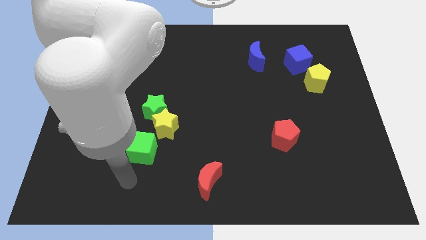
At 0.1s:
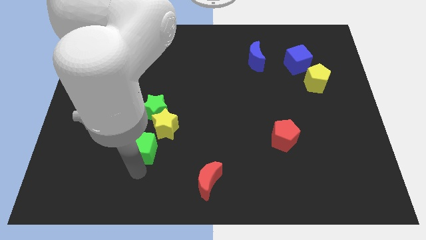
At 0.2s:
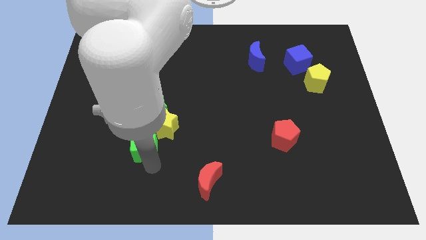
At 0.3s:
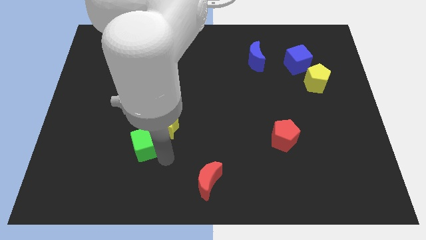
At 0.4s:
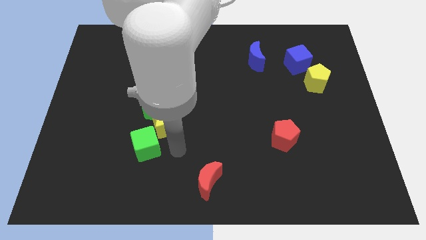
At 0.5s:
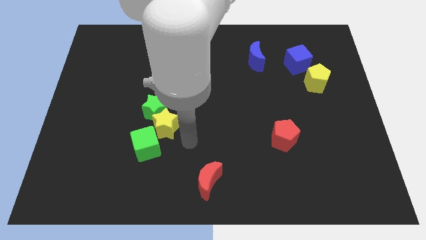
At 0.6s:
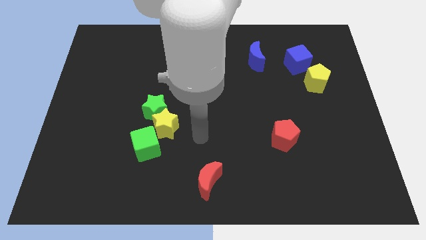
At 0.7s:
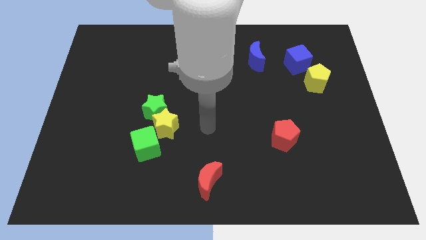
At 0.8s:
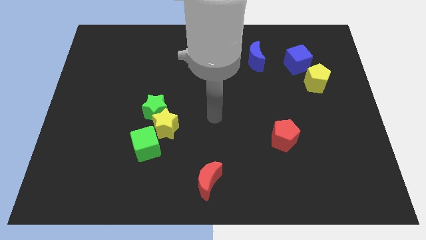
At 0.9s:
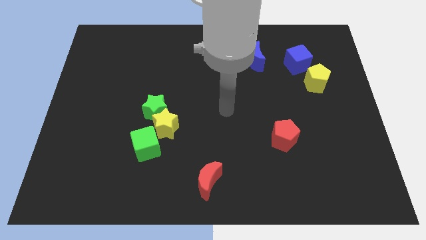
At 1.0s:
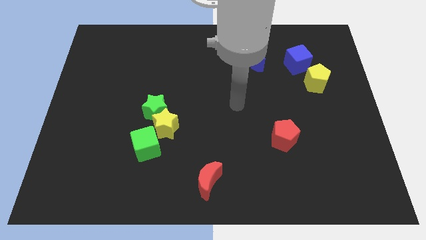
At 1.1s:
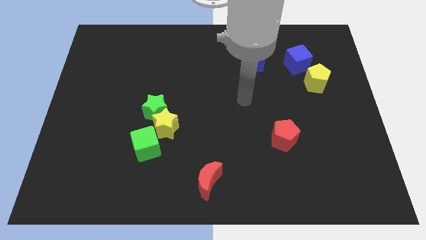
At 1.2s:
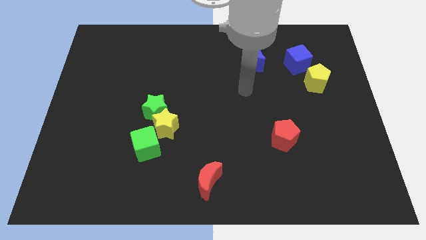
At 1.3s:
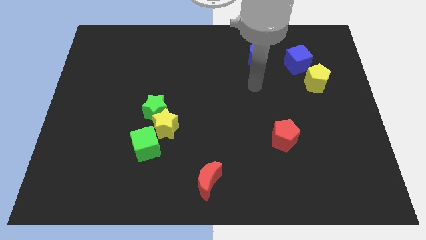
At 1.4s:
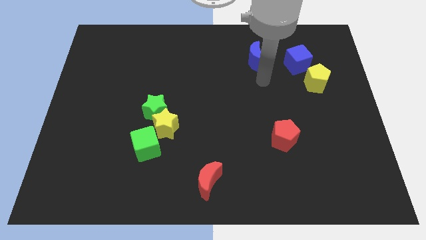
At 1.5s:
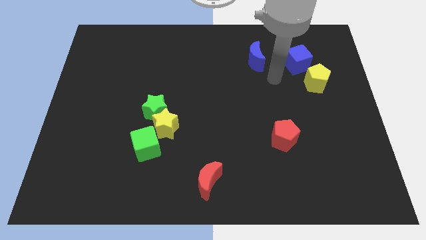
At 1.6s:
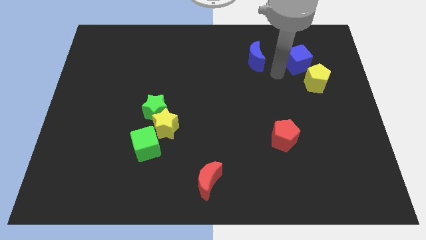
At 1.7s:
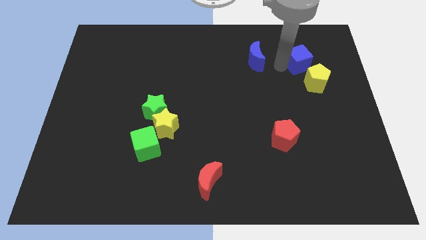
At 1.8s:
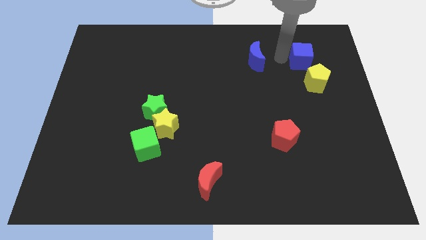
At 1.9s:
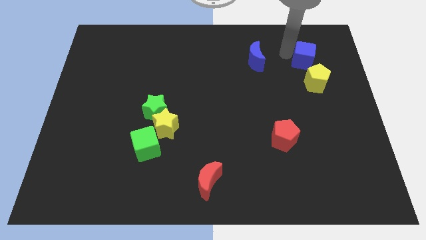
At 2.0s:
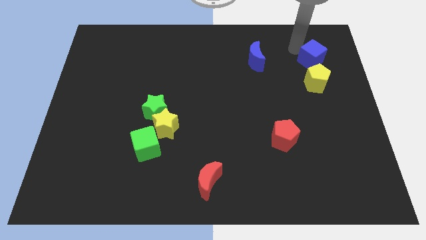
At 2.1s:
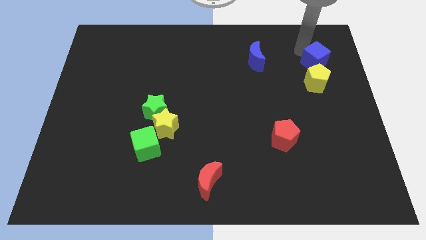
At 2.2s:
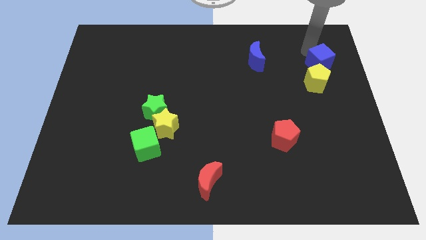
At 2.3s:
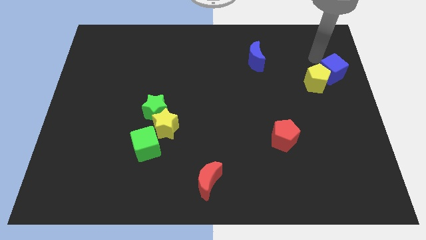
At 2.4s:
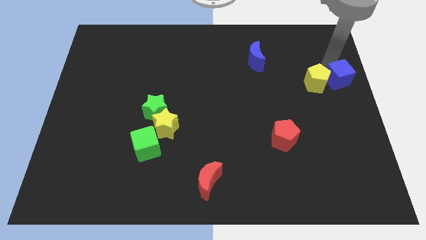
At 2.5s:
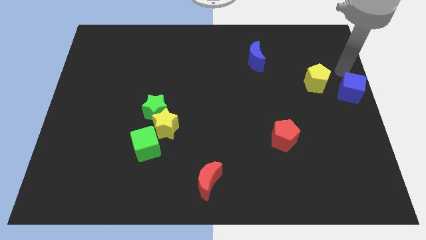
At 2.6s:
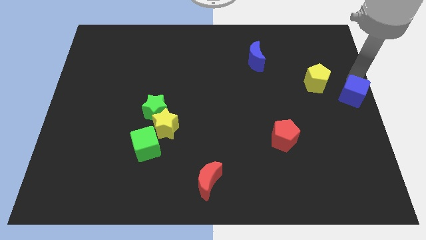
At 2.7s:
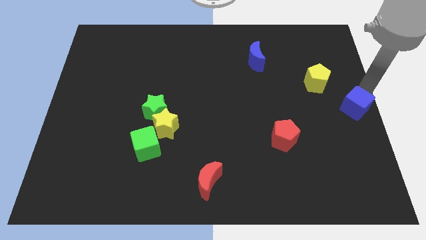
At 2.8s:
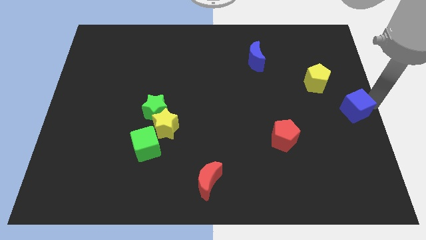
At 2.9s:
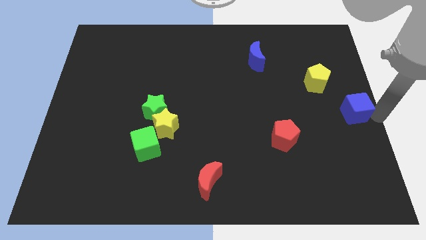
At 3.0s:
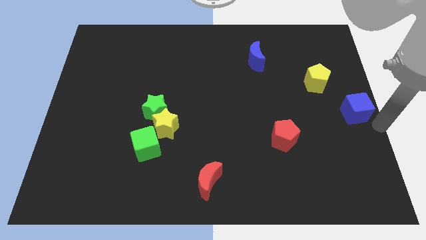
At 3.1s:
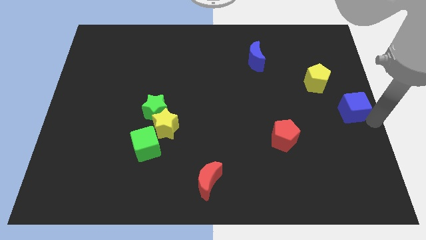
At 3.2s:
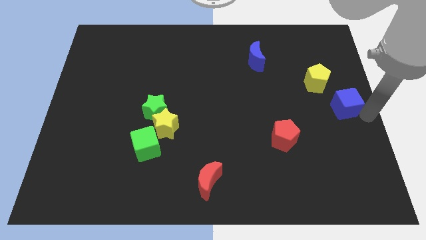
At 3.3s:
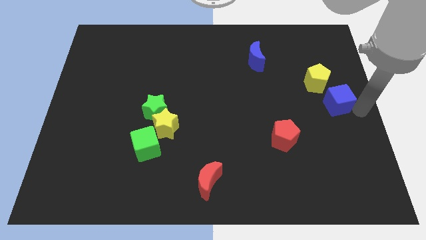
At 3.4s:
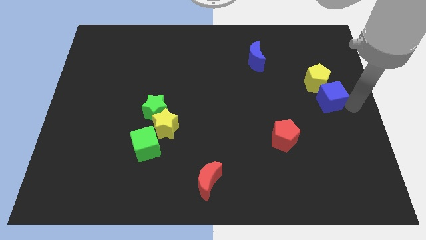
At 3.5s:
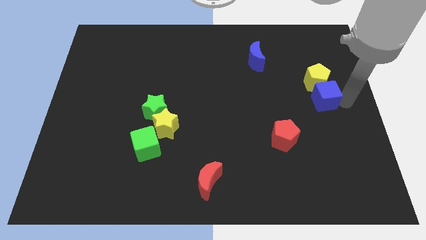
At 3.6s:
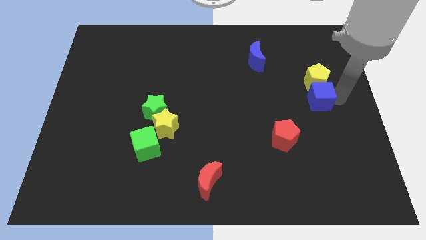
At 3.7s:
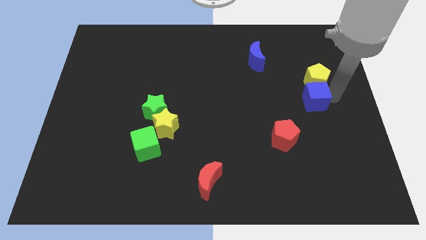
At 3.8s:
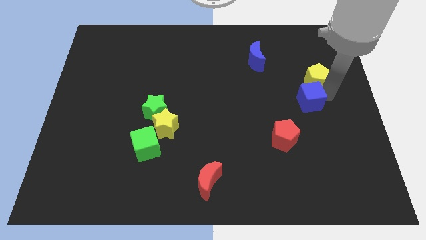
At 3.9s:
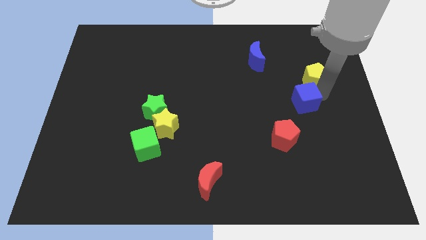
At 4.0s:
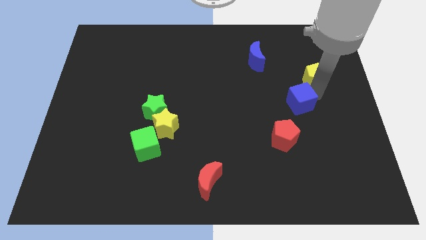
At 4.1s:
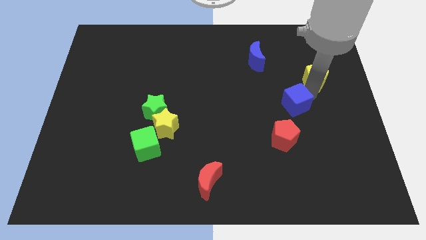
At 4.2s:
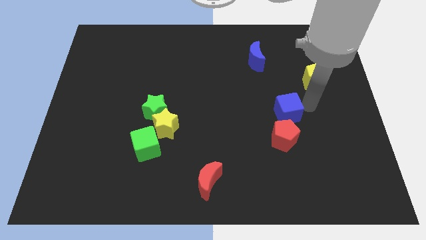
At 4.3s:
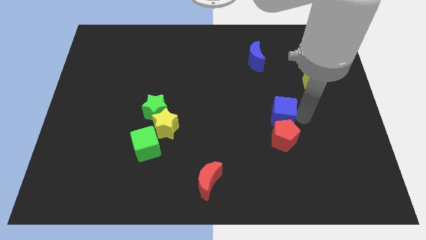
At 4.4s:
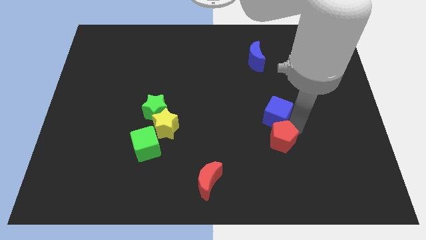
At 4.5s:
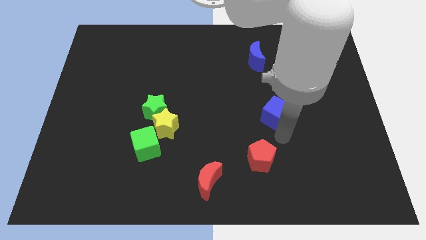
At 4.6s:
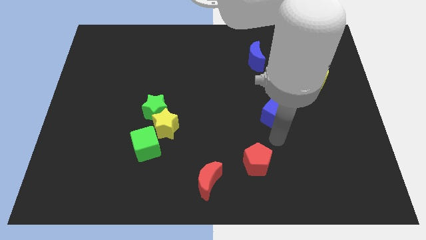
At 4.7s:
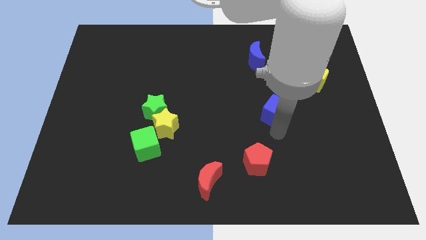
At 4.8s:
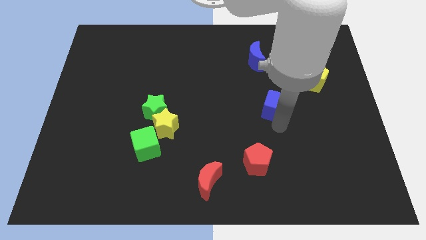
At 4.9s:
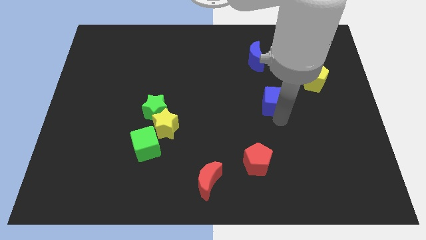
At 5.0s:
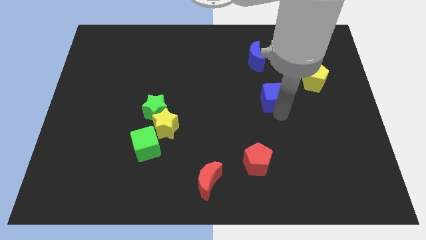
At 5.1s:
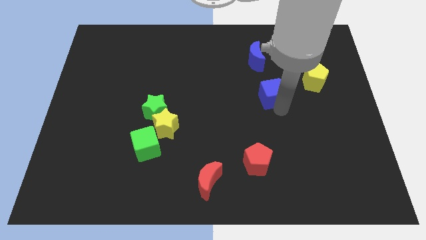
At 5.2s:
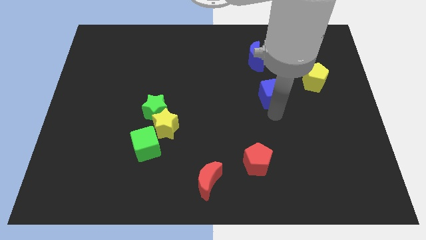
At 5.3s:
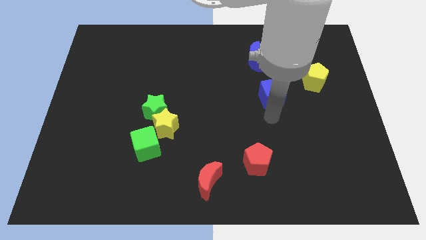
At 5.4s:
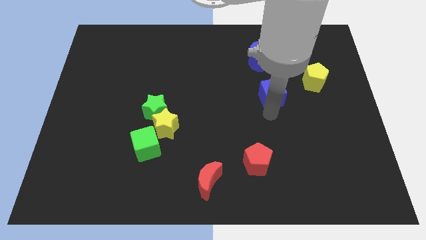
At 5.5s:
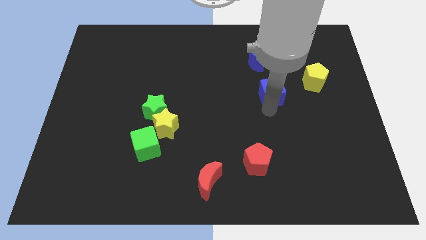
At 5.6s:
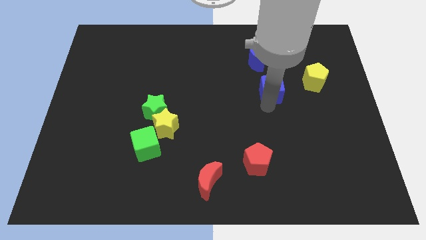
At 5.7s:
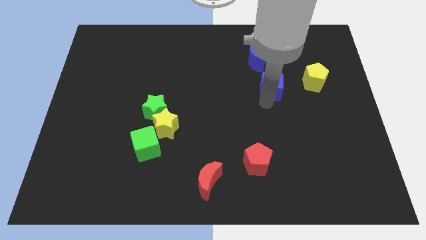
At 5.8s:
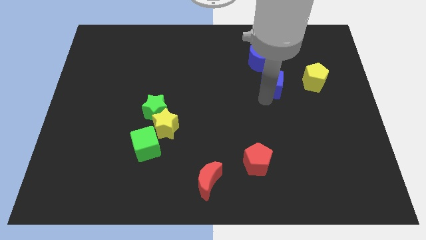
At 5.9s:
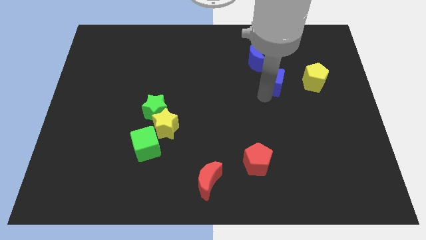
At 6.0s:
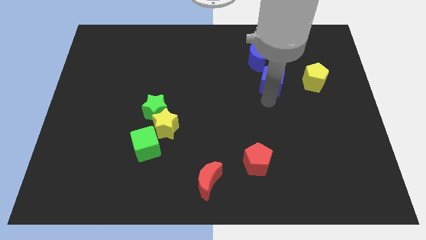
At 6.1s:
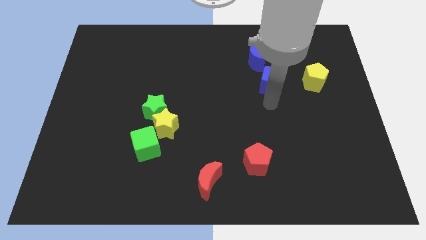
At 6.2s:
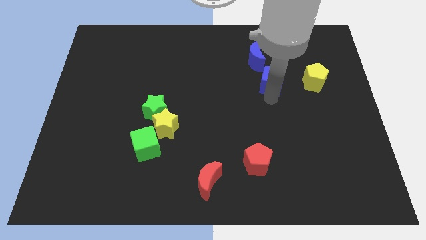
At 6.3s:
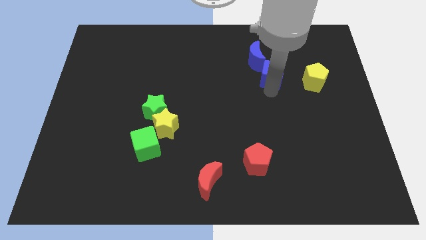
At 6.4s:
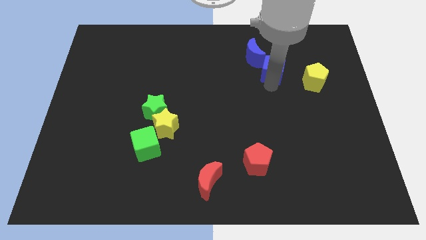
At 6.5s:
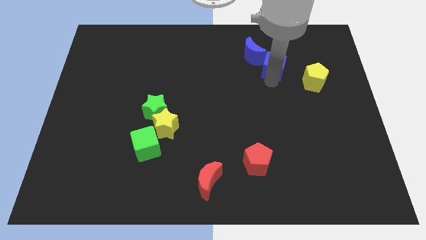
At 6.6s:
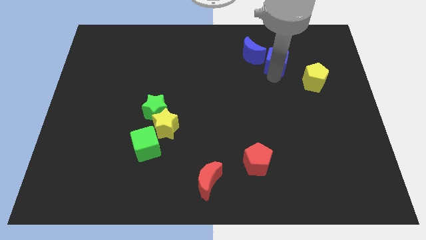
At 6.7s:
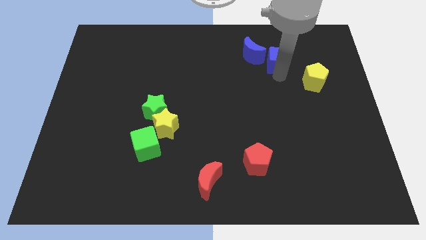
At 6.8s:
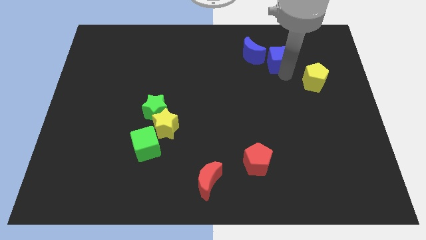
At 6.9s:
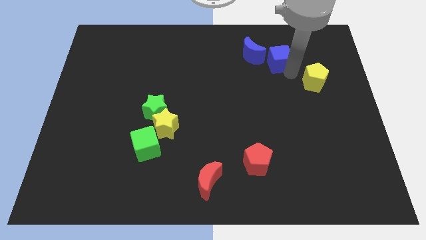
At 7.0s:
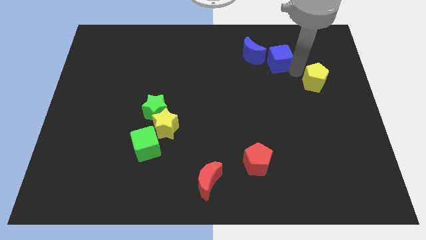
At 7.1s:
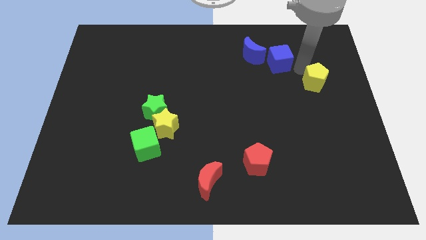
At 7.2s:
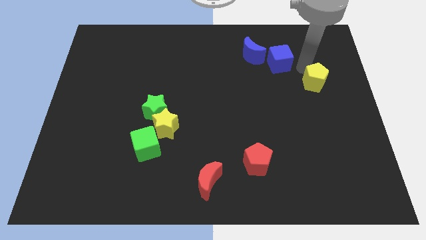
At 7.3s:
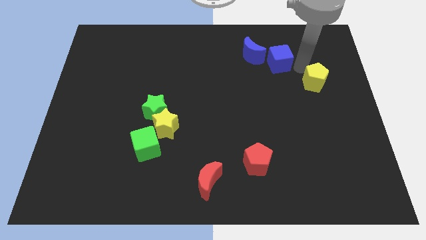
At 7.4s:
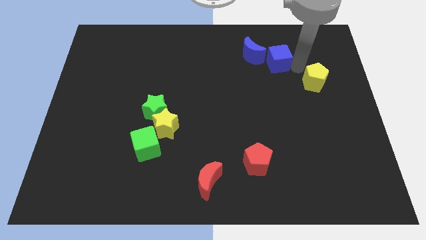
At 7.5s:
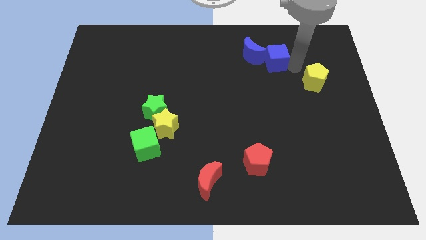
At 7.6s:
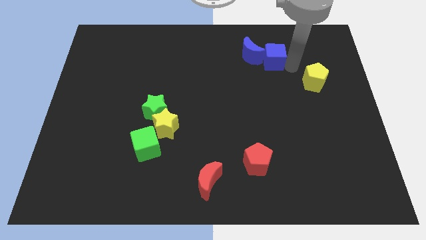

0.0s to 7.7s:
put the blue cube to the blue moon
